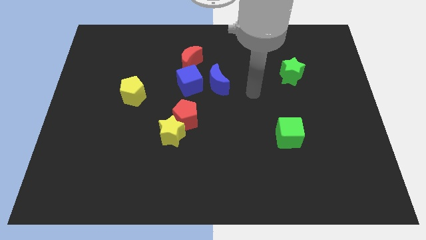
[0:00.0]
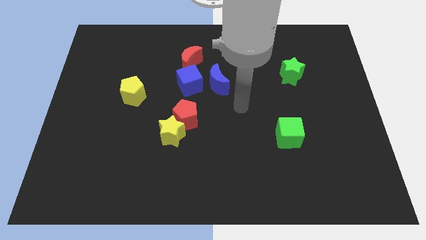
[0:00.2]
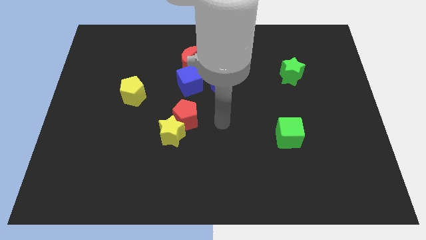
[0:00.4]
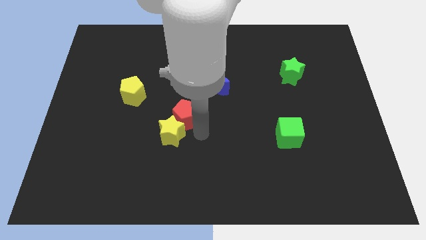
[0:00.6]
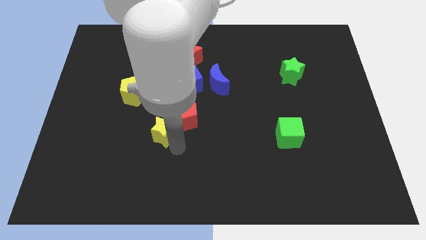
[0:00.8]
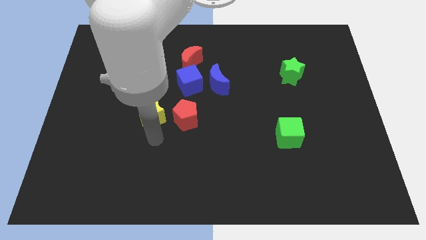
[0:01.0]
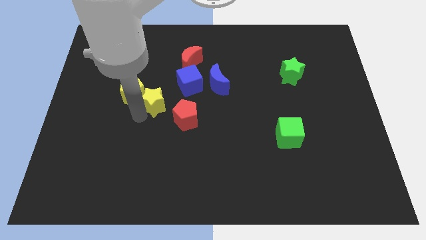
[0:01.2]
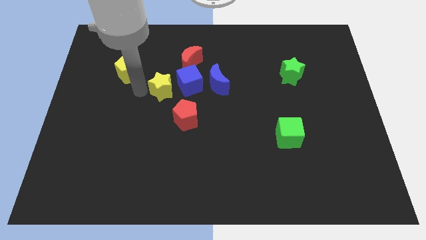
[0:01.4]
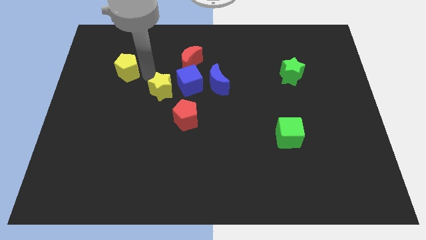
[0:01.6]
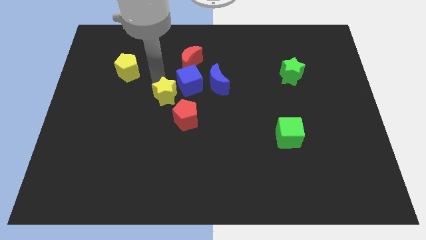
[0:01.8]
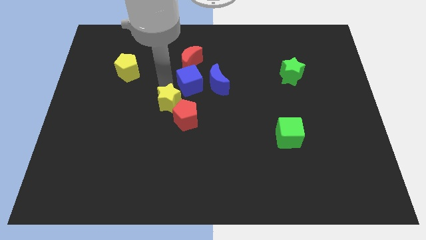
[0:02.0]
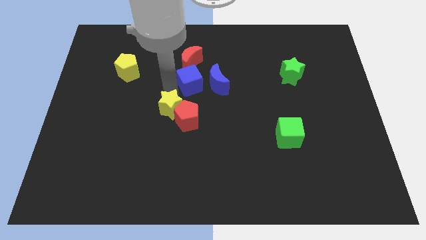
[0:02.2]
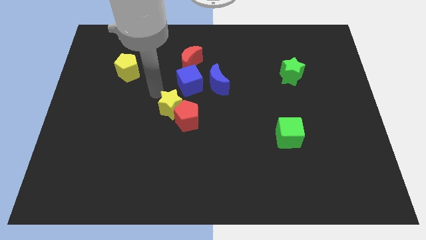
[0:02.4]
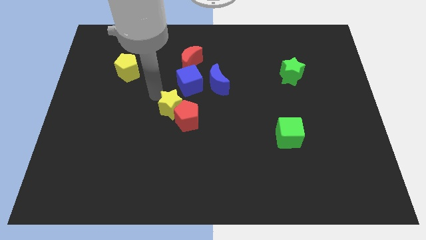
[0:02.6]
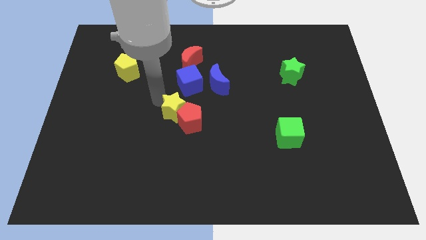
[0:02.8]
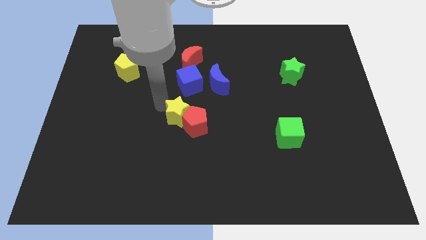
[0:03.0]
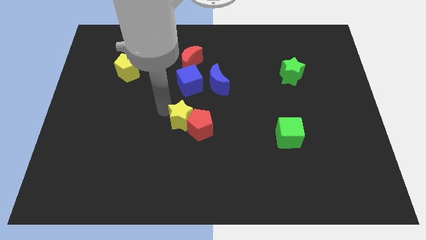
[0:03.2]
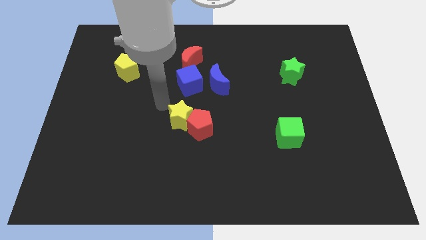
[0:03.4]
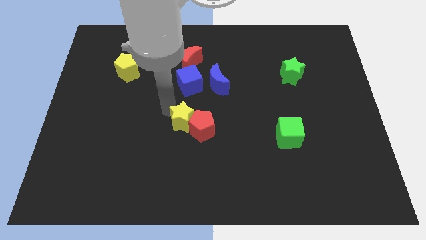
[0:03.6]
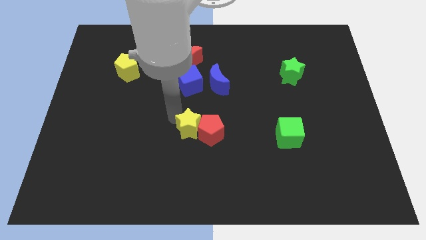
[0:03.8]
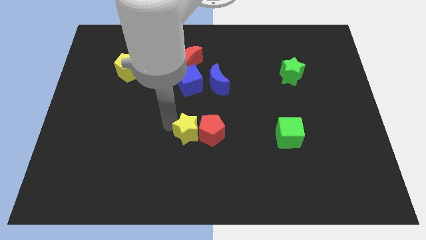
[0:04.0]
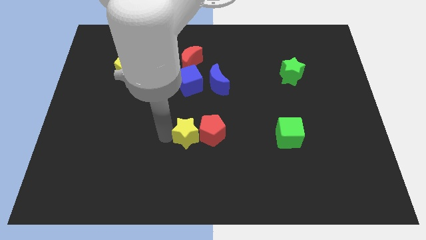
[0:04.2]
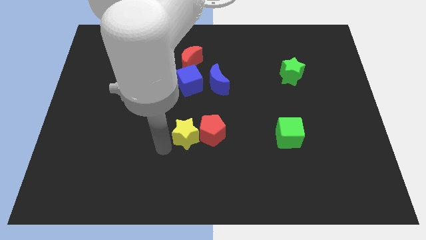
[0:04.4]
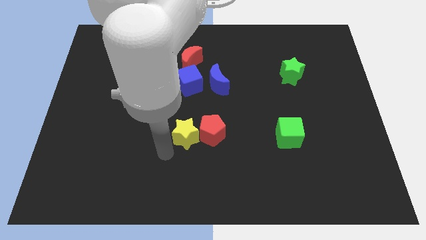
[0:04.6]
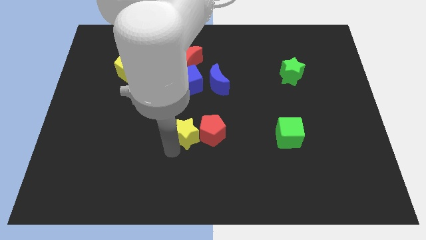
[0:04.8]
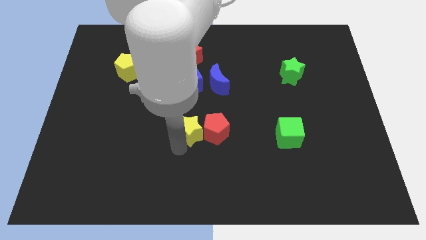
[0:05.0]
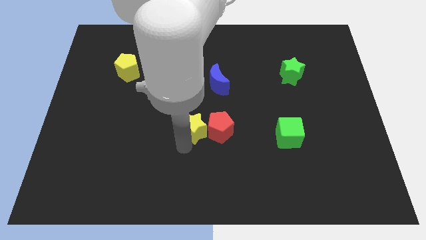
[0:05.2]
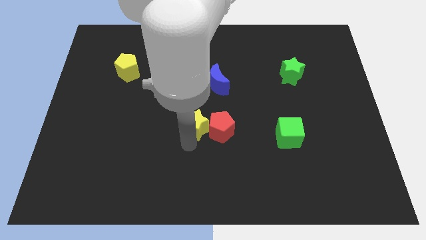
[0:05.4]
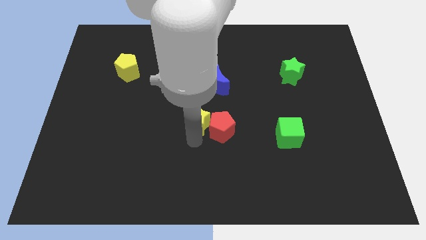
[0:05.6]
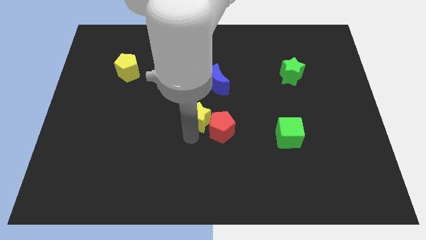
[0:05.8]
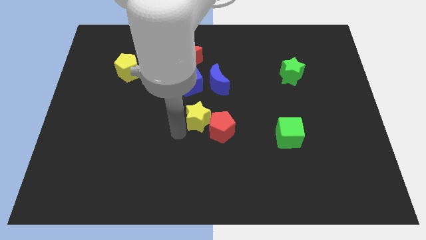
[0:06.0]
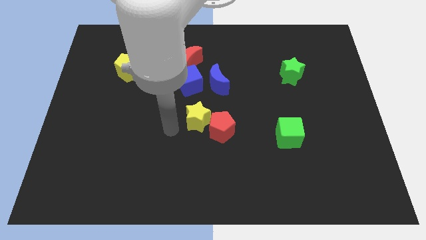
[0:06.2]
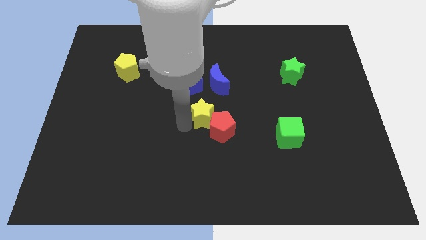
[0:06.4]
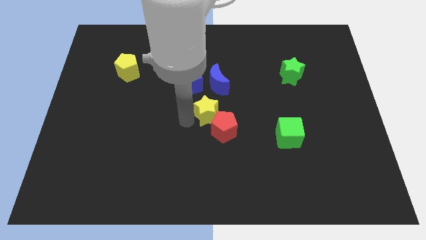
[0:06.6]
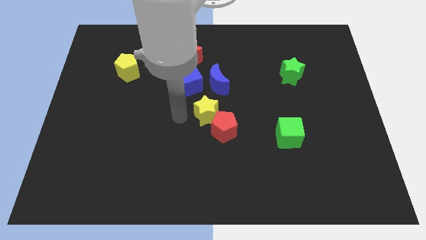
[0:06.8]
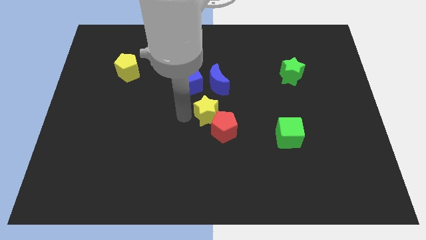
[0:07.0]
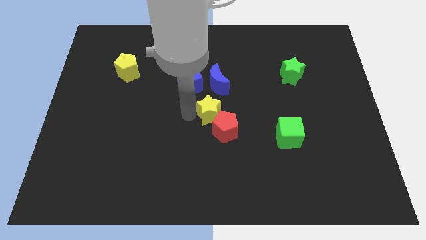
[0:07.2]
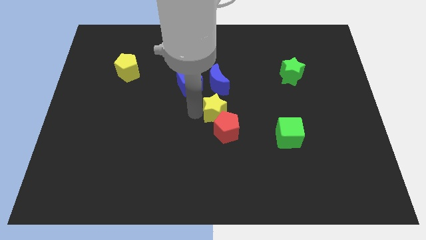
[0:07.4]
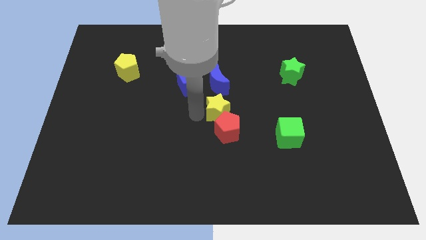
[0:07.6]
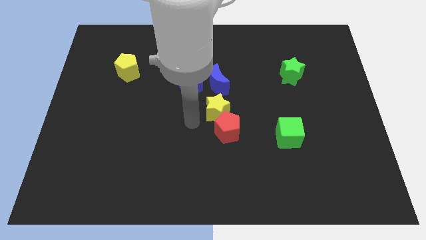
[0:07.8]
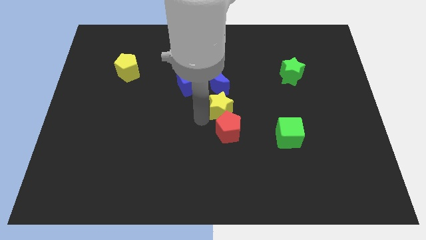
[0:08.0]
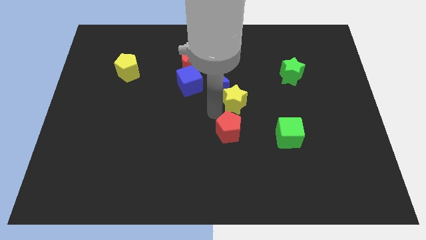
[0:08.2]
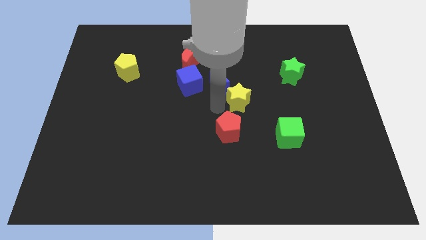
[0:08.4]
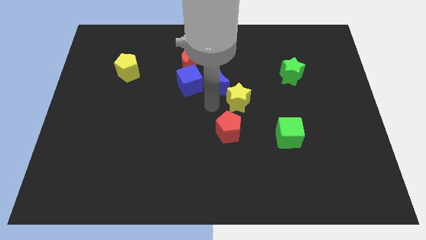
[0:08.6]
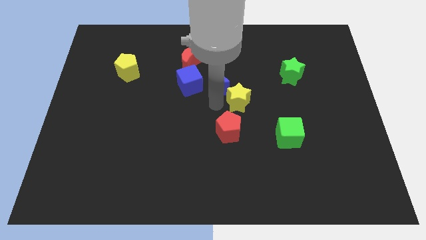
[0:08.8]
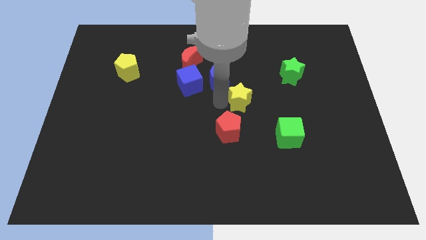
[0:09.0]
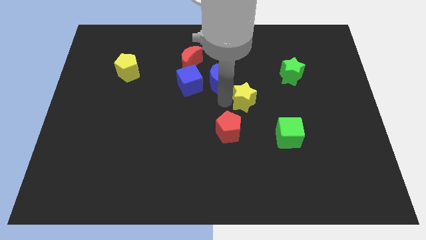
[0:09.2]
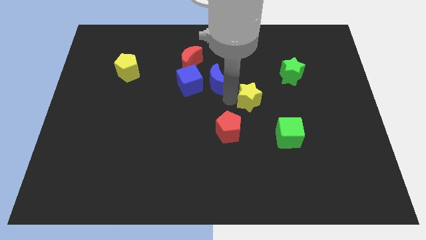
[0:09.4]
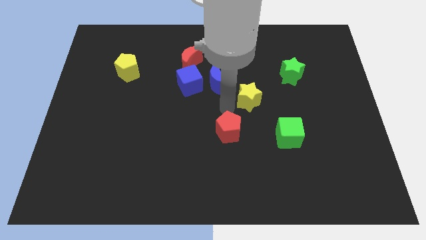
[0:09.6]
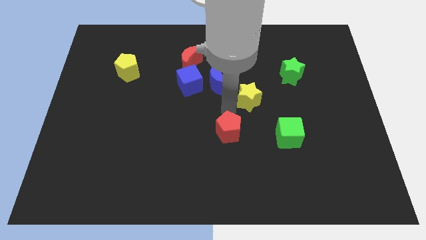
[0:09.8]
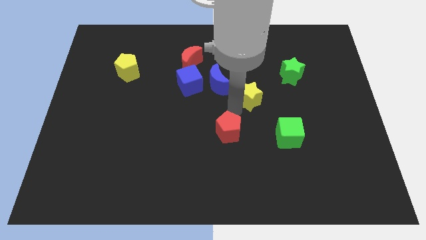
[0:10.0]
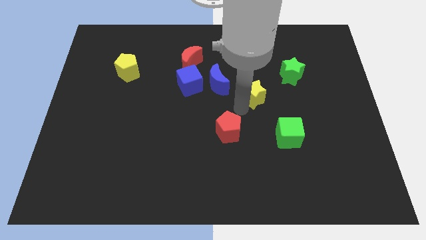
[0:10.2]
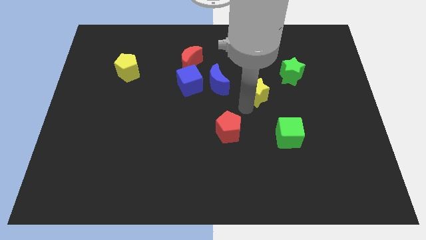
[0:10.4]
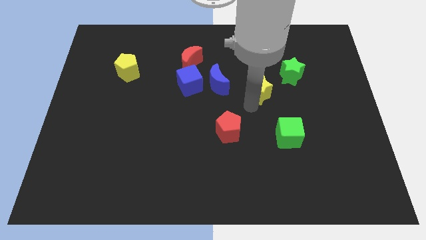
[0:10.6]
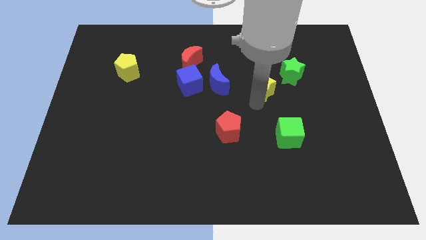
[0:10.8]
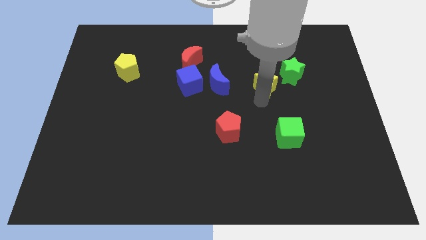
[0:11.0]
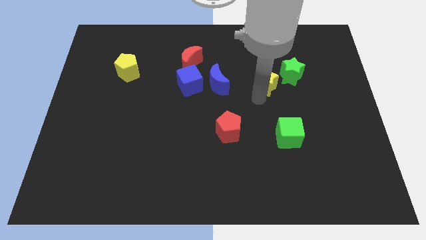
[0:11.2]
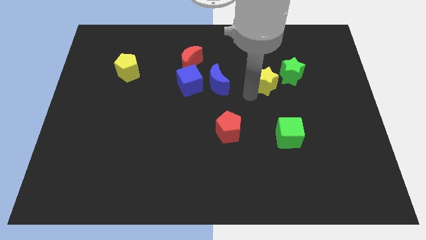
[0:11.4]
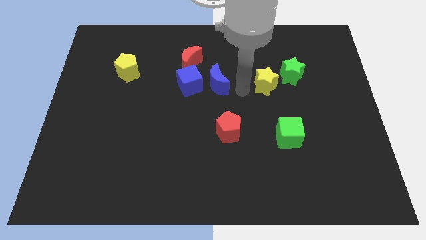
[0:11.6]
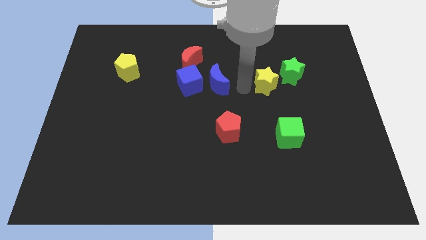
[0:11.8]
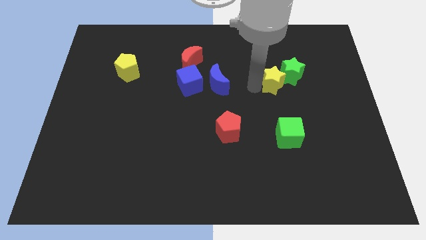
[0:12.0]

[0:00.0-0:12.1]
put the yellow star towards the green star

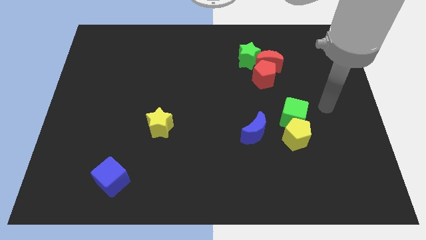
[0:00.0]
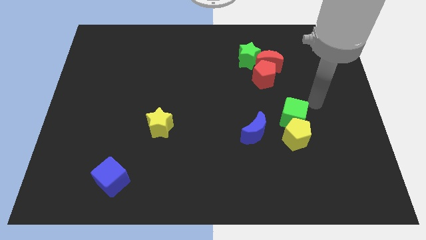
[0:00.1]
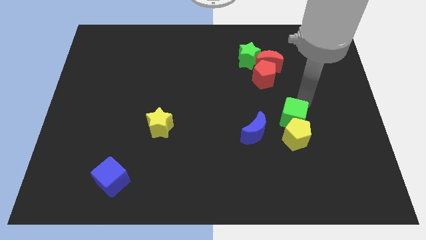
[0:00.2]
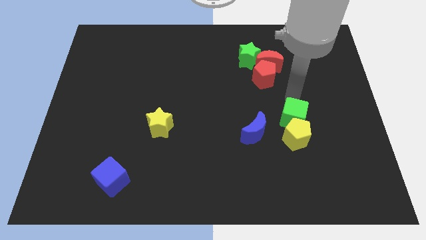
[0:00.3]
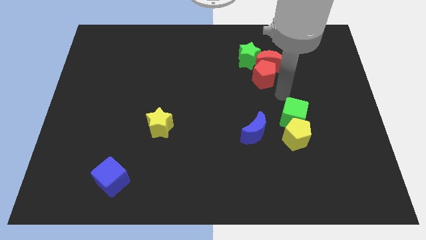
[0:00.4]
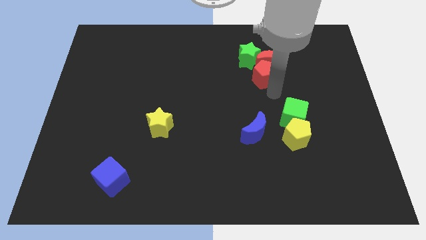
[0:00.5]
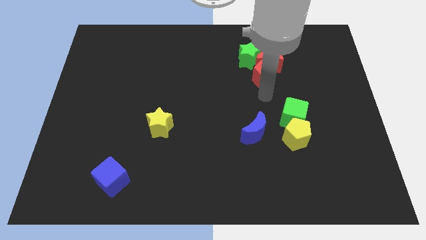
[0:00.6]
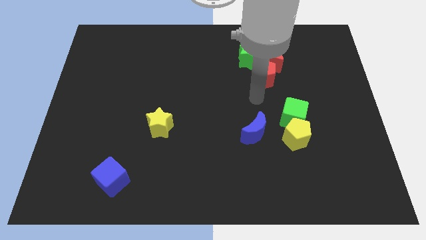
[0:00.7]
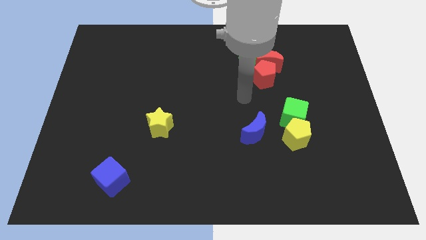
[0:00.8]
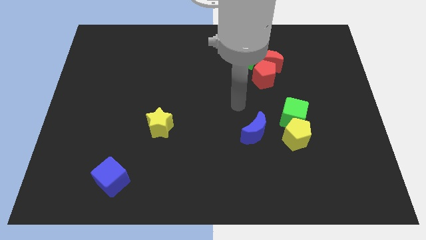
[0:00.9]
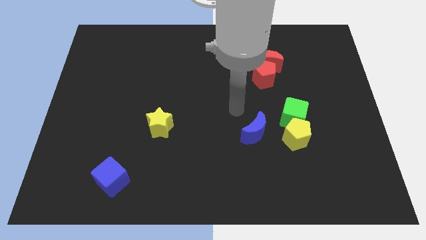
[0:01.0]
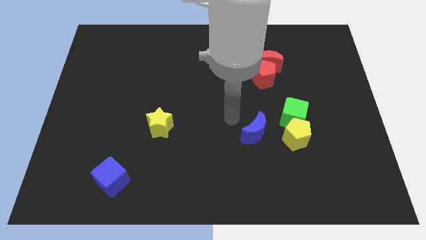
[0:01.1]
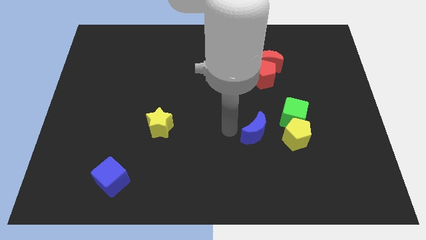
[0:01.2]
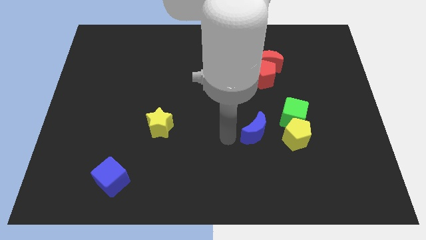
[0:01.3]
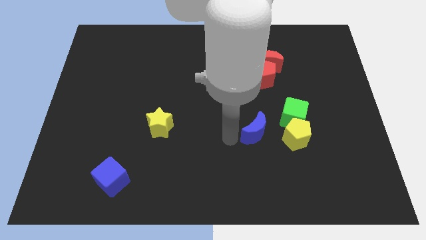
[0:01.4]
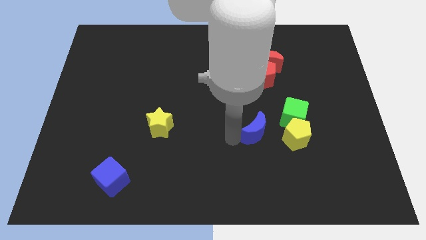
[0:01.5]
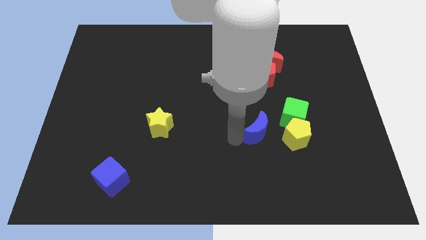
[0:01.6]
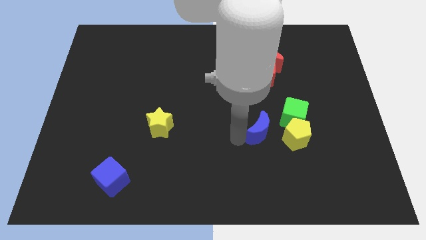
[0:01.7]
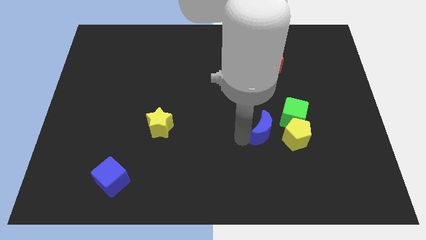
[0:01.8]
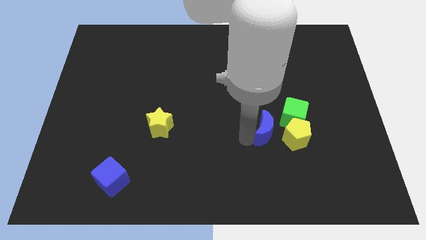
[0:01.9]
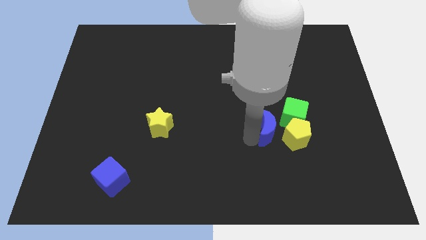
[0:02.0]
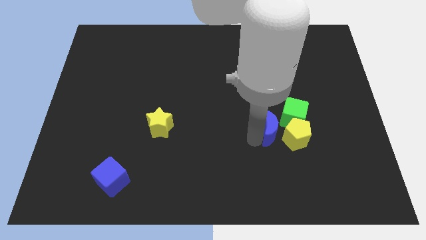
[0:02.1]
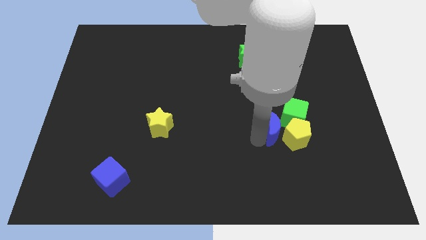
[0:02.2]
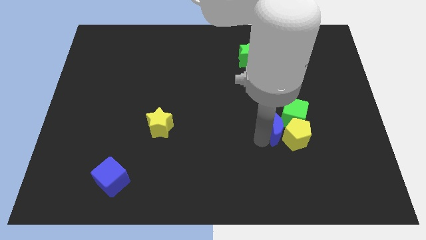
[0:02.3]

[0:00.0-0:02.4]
push the blue moon towards the green cube
